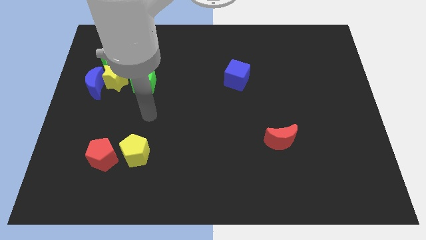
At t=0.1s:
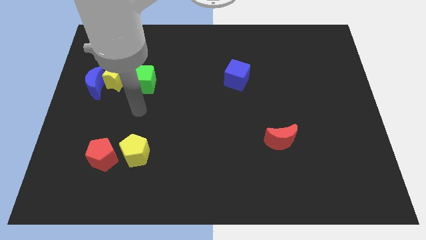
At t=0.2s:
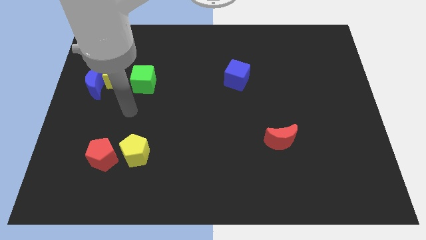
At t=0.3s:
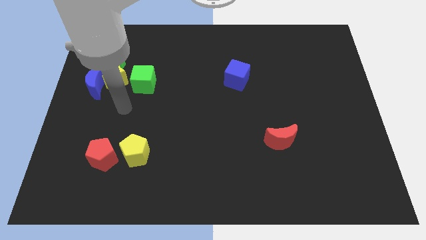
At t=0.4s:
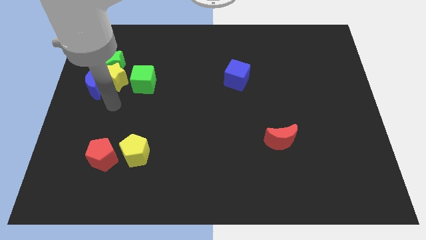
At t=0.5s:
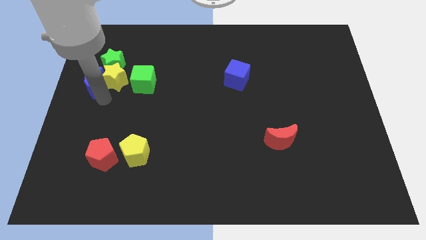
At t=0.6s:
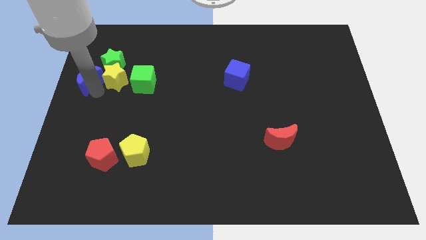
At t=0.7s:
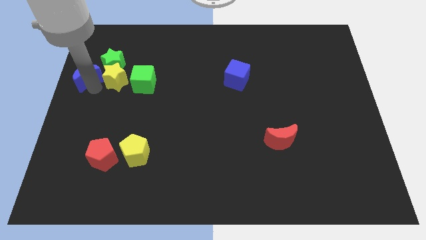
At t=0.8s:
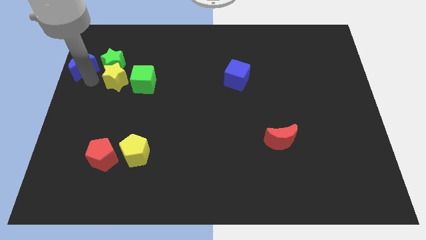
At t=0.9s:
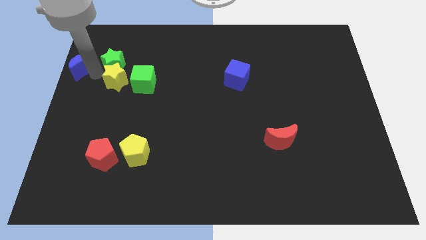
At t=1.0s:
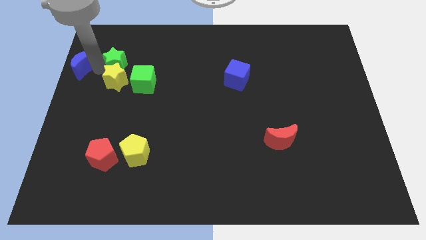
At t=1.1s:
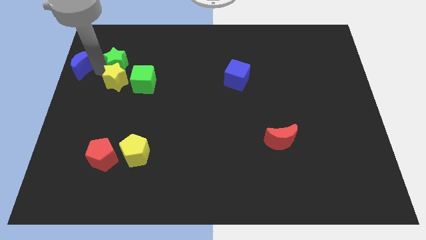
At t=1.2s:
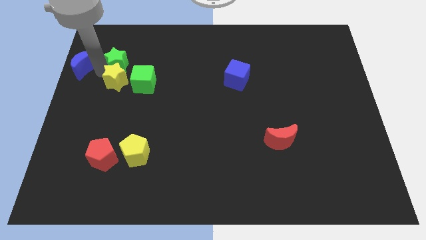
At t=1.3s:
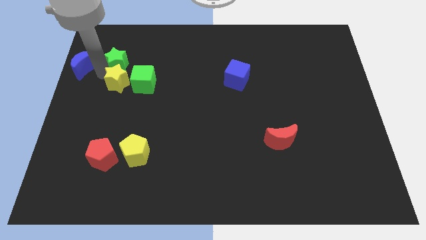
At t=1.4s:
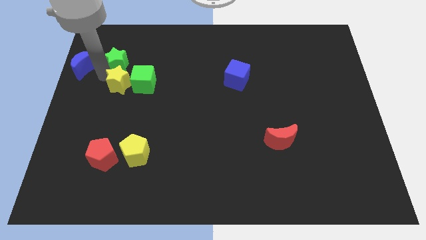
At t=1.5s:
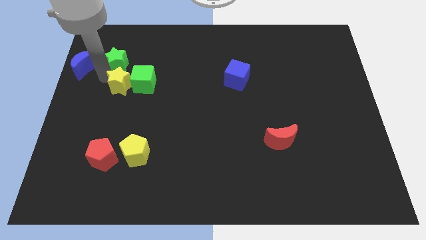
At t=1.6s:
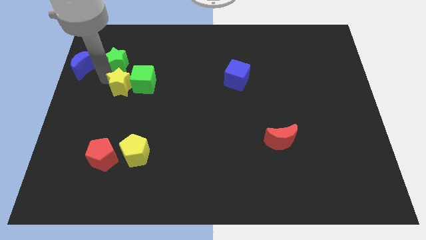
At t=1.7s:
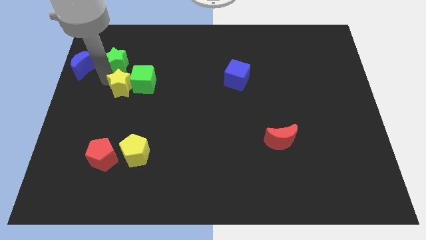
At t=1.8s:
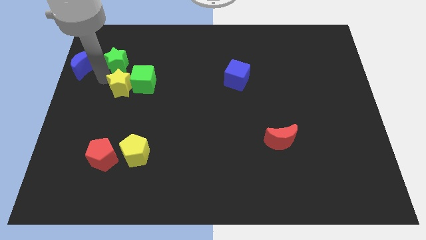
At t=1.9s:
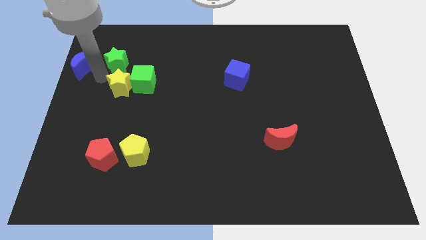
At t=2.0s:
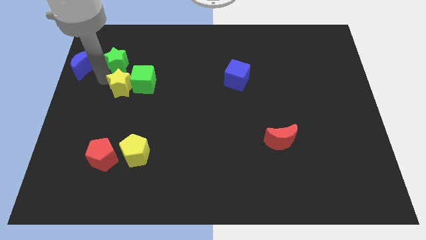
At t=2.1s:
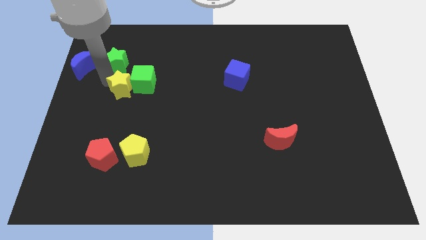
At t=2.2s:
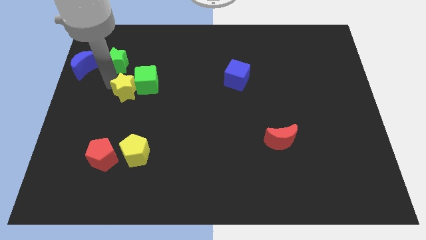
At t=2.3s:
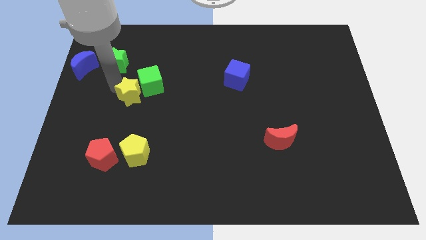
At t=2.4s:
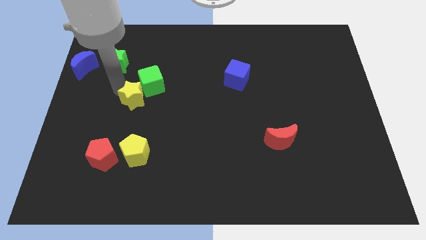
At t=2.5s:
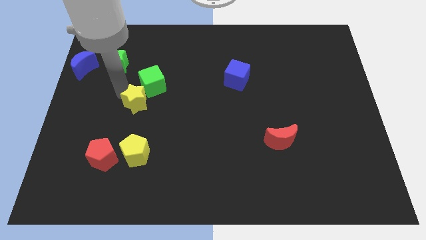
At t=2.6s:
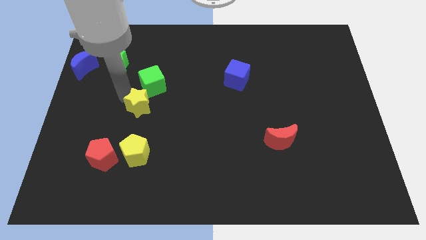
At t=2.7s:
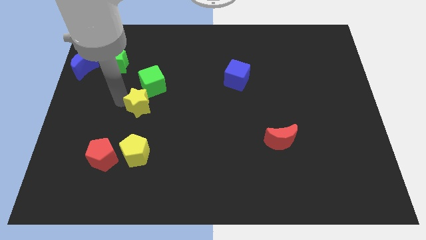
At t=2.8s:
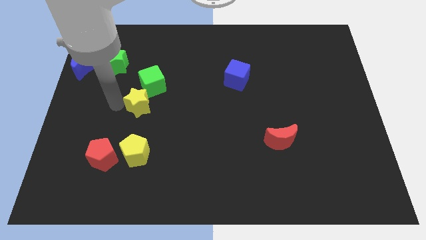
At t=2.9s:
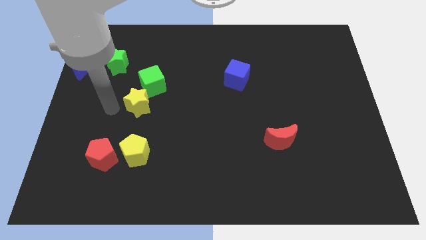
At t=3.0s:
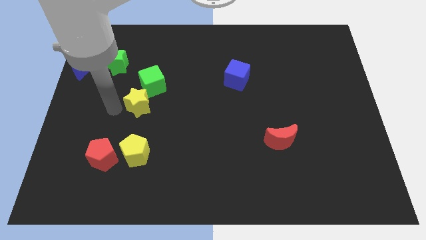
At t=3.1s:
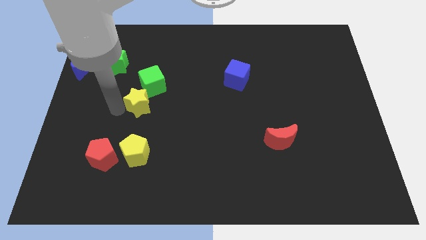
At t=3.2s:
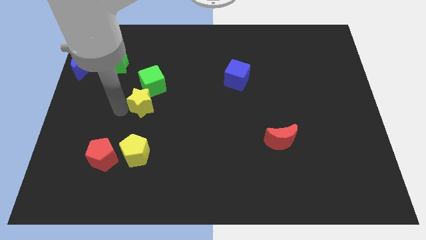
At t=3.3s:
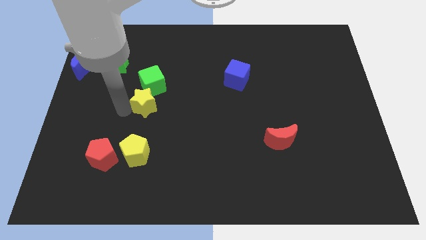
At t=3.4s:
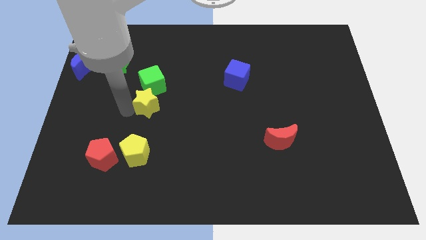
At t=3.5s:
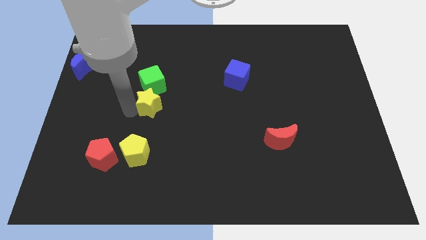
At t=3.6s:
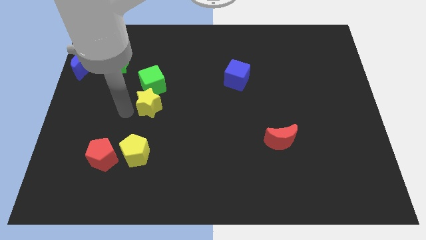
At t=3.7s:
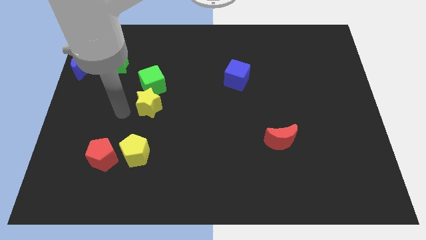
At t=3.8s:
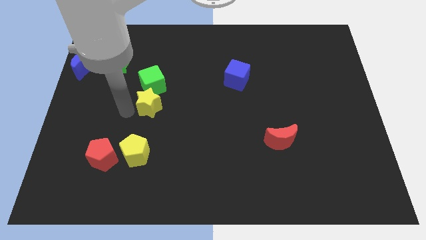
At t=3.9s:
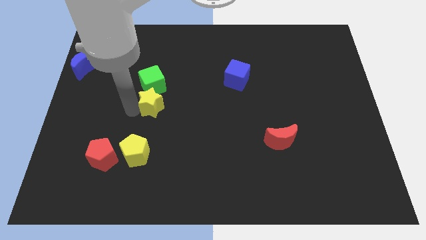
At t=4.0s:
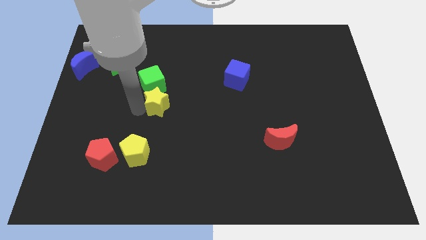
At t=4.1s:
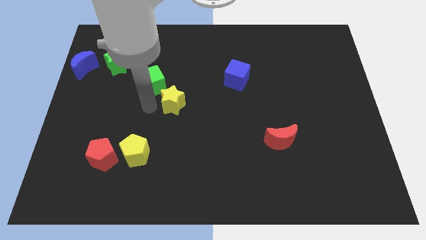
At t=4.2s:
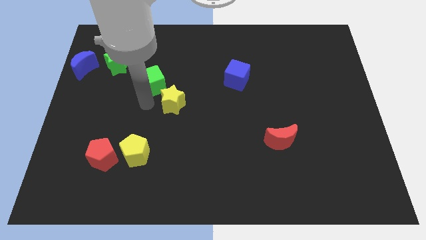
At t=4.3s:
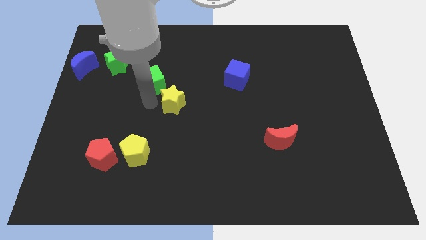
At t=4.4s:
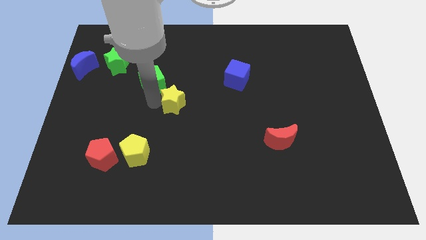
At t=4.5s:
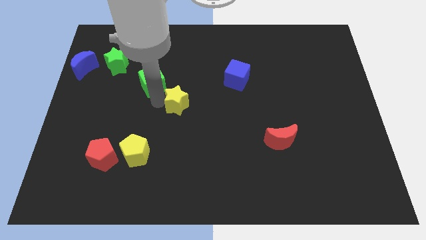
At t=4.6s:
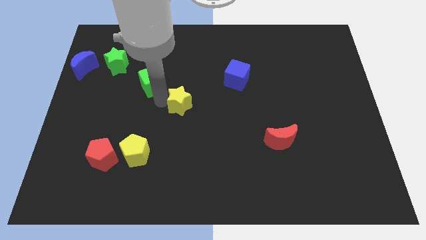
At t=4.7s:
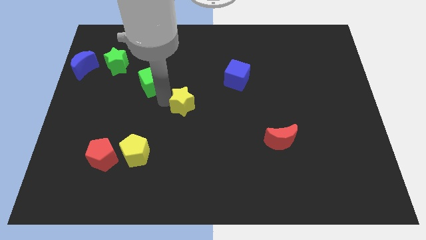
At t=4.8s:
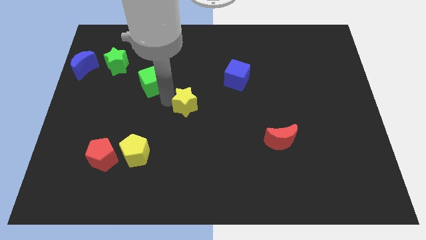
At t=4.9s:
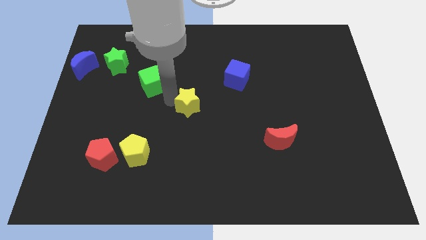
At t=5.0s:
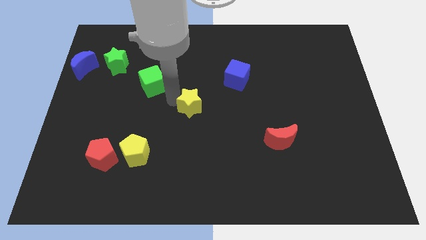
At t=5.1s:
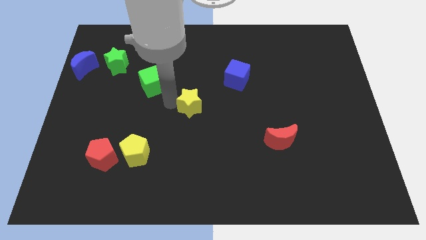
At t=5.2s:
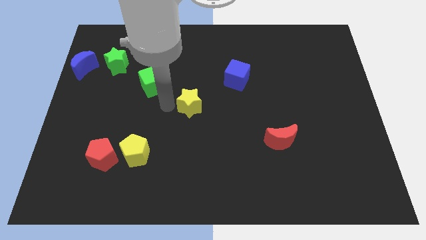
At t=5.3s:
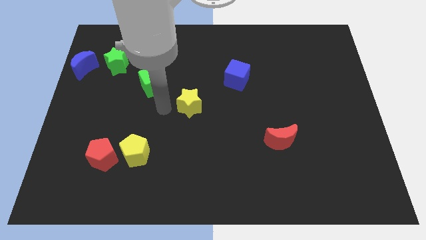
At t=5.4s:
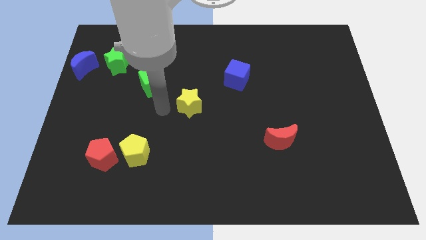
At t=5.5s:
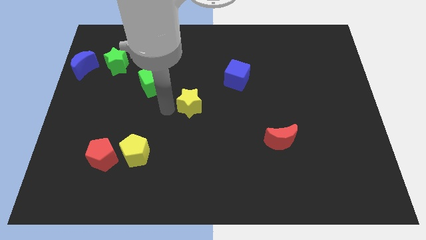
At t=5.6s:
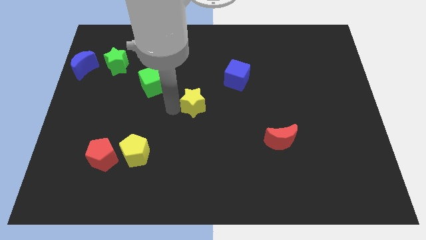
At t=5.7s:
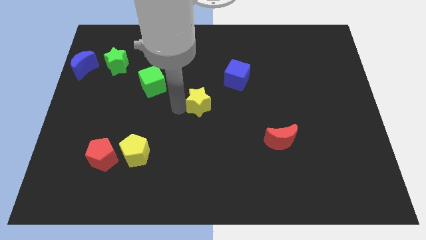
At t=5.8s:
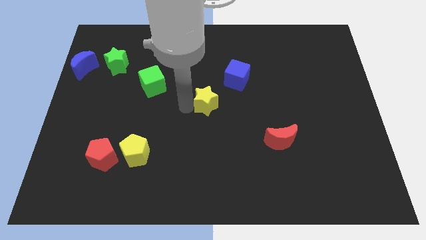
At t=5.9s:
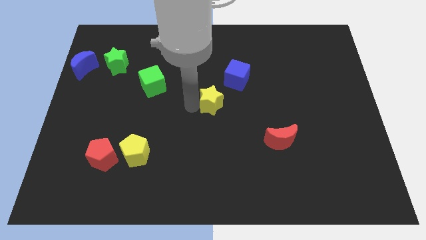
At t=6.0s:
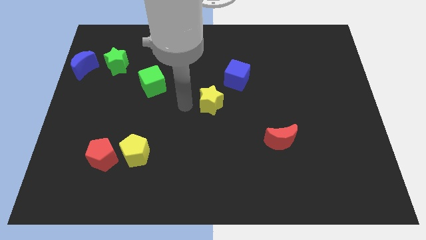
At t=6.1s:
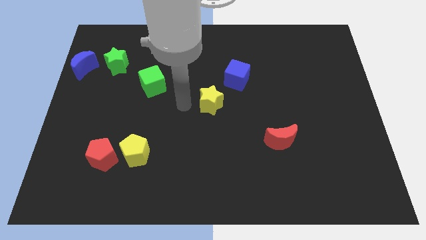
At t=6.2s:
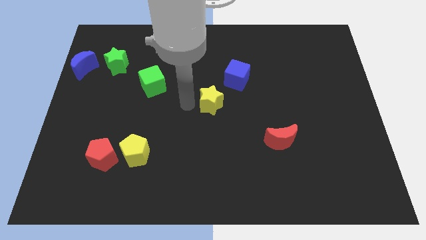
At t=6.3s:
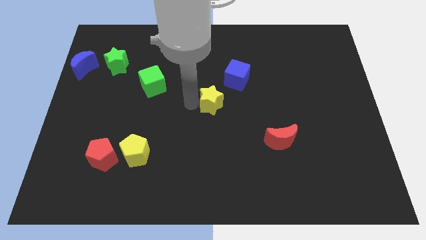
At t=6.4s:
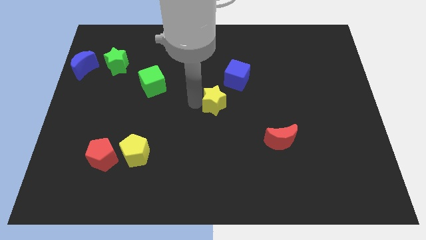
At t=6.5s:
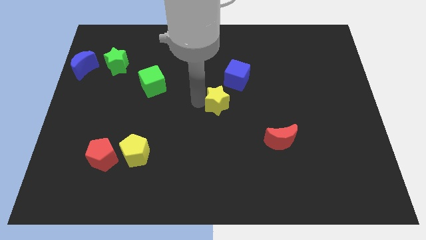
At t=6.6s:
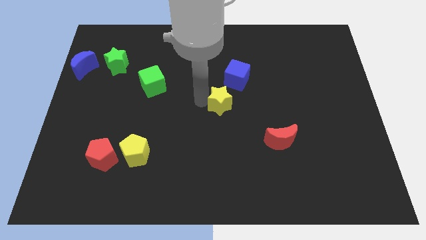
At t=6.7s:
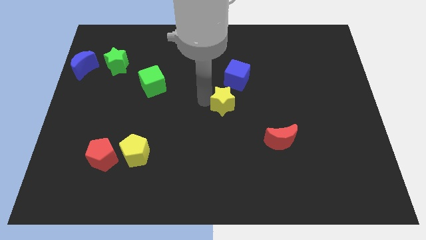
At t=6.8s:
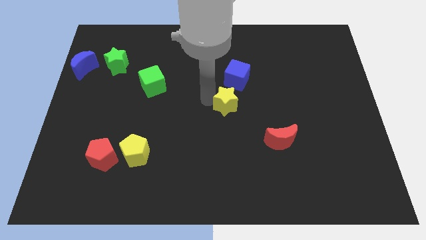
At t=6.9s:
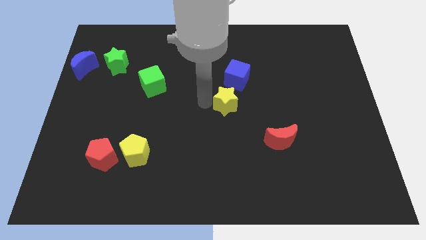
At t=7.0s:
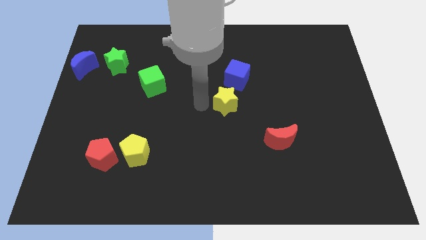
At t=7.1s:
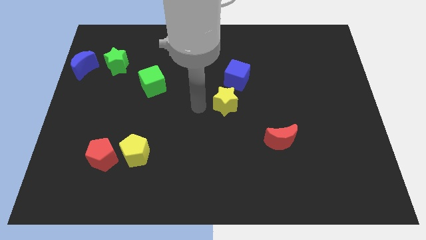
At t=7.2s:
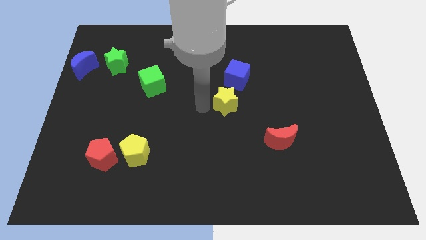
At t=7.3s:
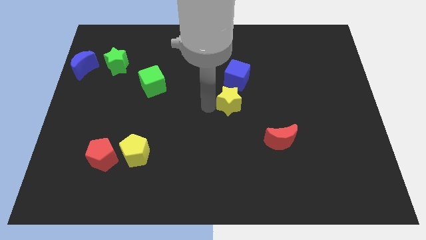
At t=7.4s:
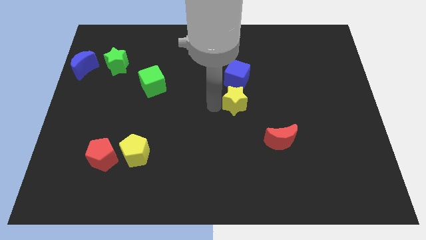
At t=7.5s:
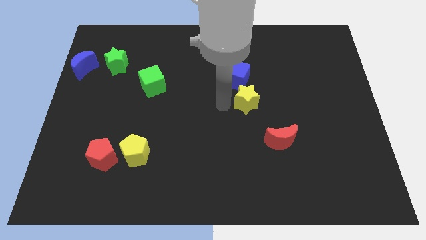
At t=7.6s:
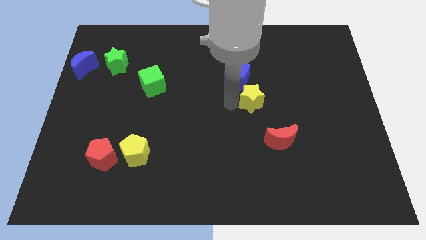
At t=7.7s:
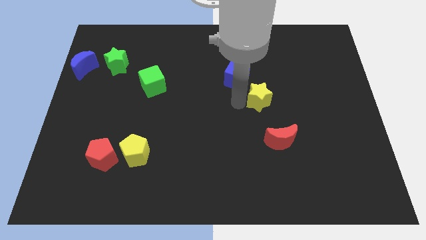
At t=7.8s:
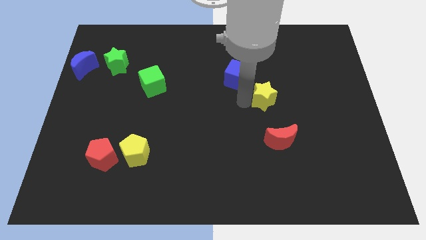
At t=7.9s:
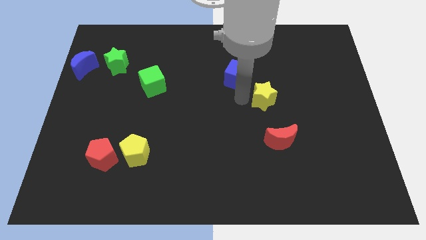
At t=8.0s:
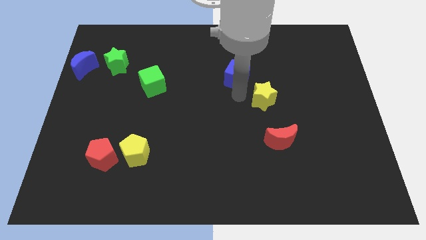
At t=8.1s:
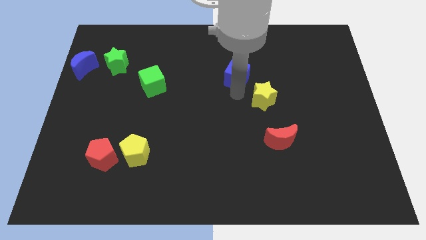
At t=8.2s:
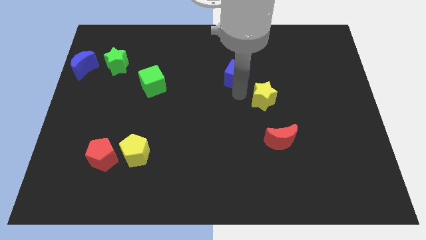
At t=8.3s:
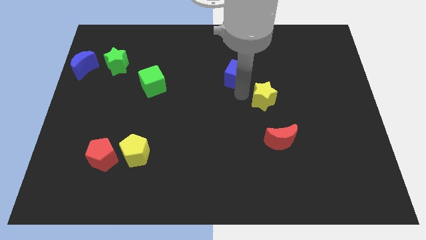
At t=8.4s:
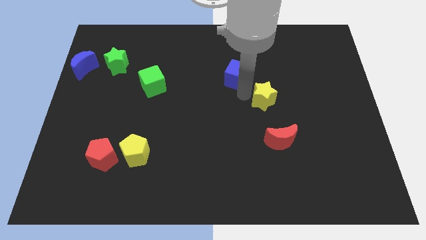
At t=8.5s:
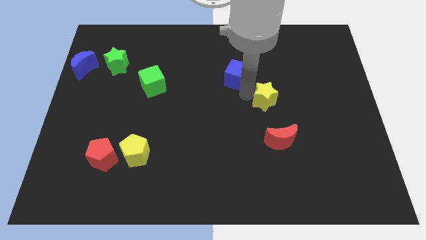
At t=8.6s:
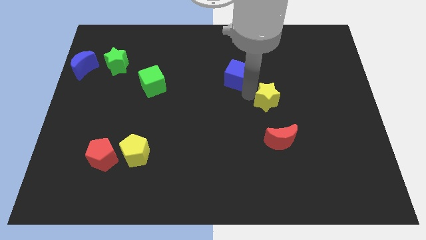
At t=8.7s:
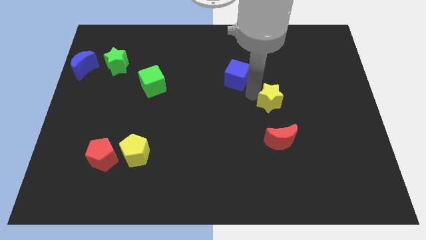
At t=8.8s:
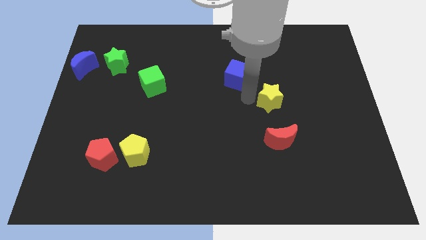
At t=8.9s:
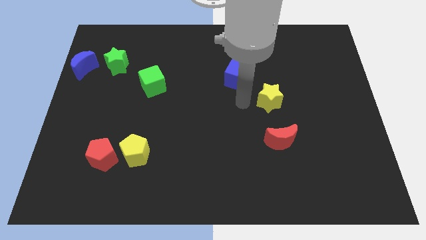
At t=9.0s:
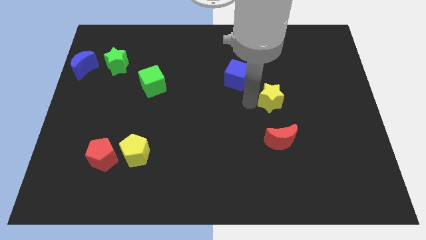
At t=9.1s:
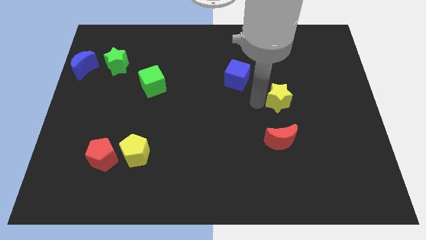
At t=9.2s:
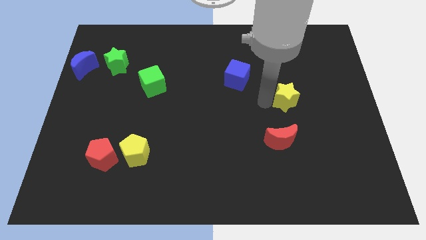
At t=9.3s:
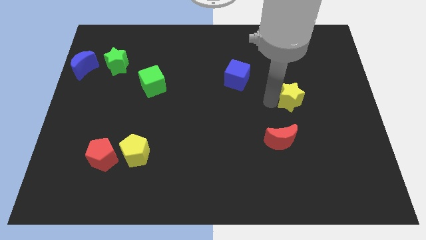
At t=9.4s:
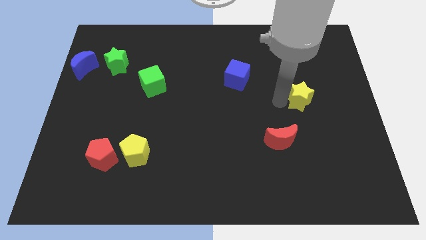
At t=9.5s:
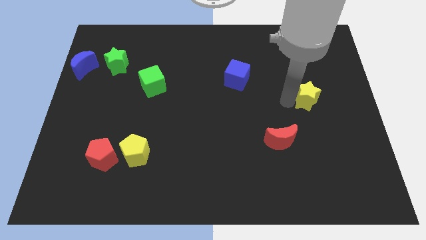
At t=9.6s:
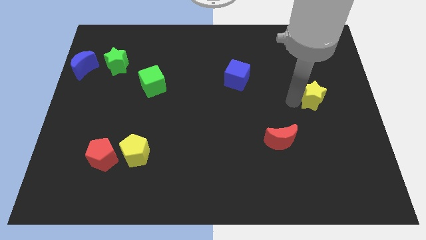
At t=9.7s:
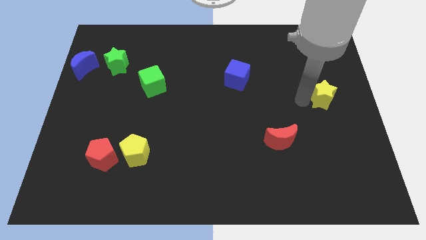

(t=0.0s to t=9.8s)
move the yellow star to the center right
